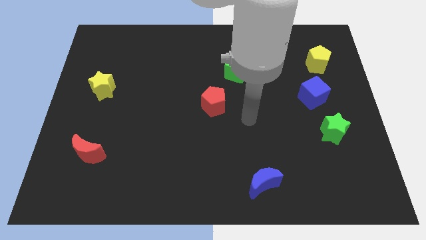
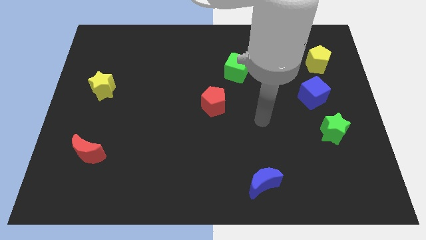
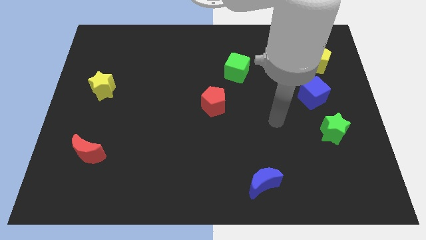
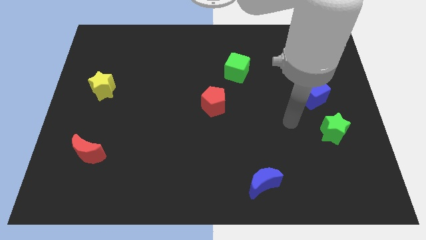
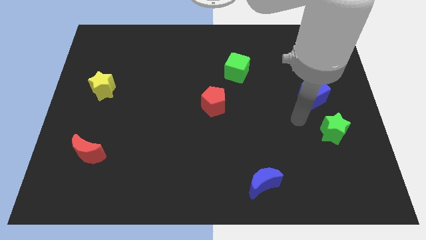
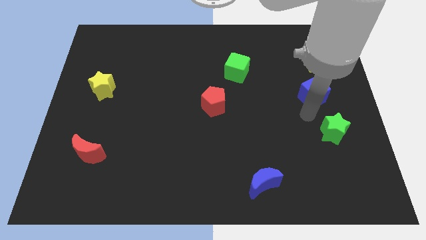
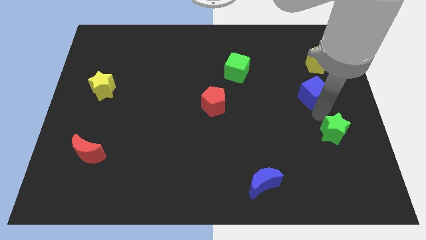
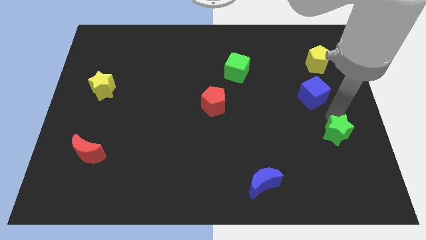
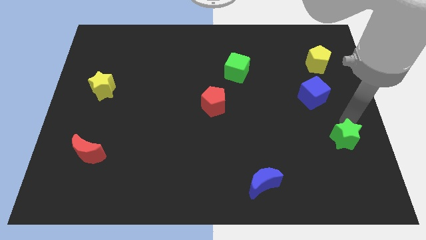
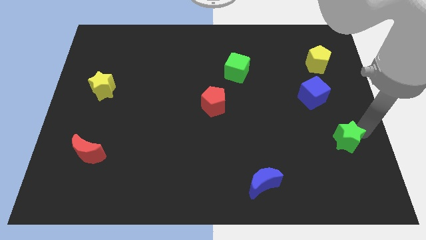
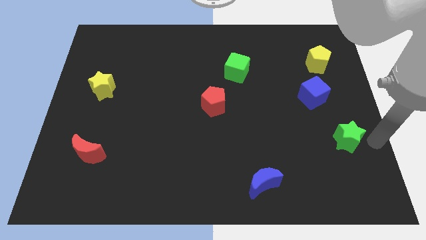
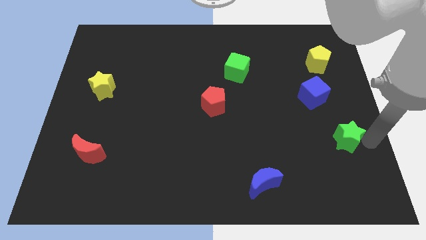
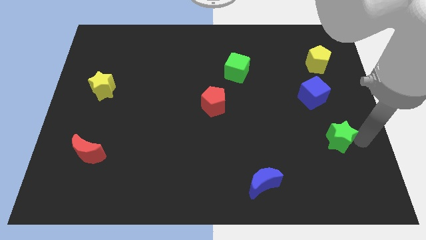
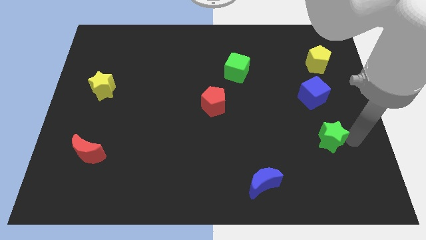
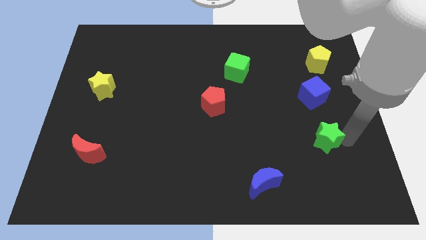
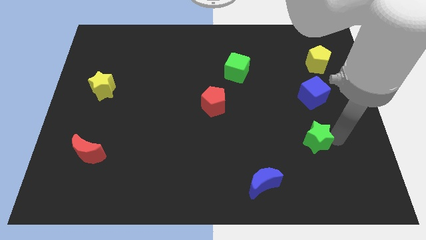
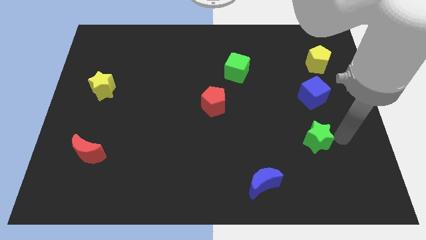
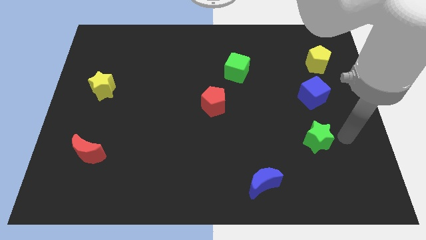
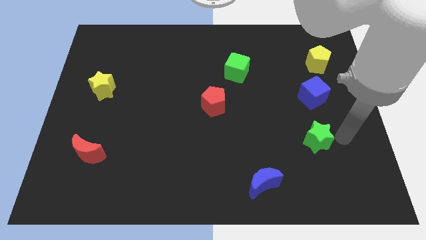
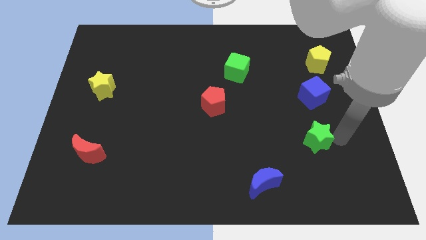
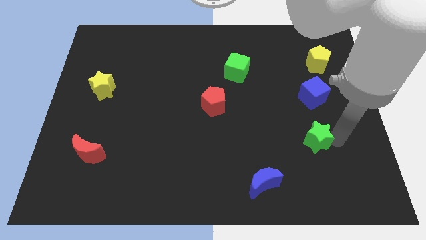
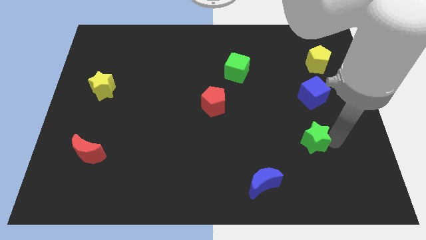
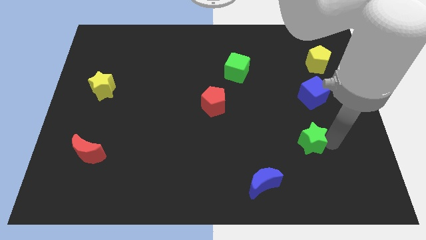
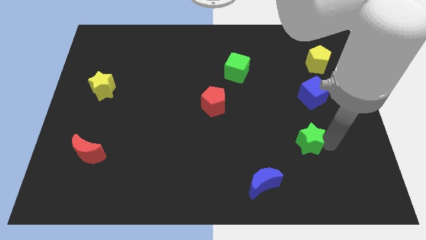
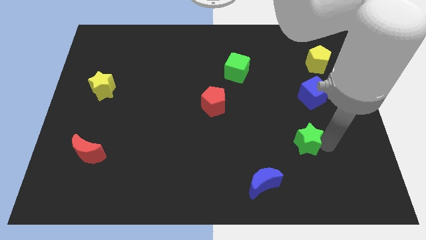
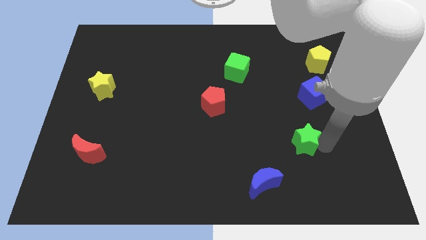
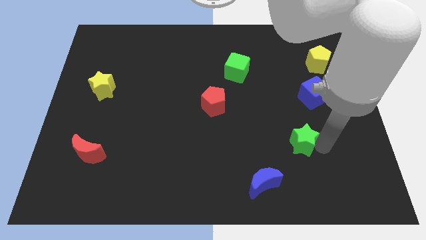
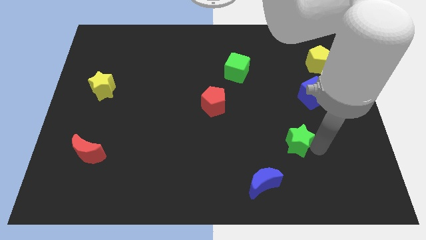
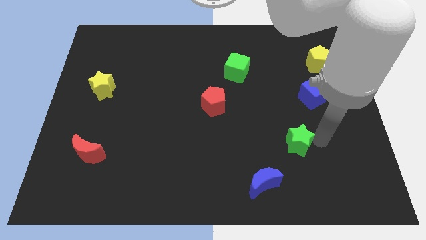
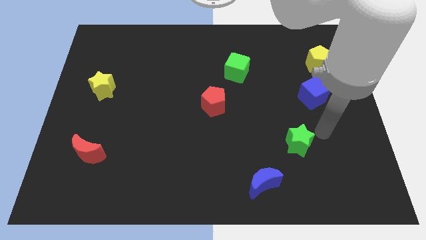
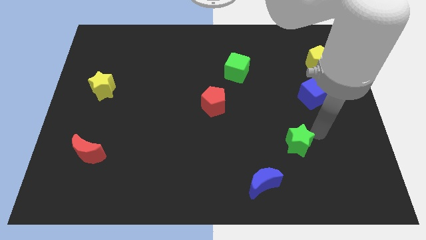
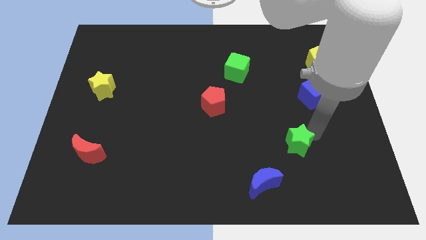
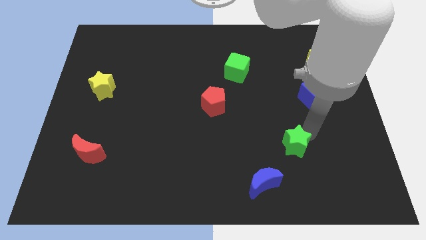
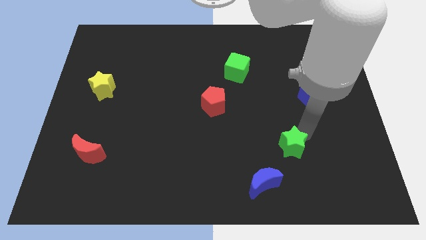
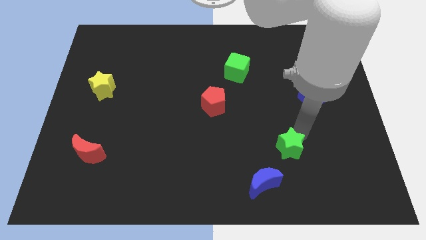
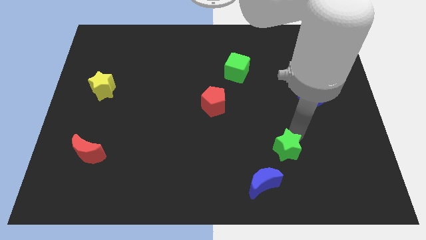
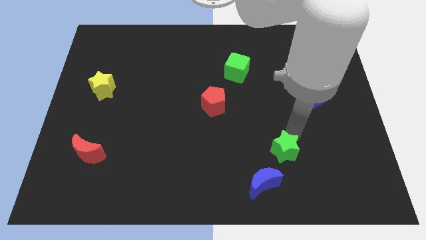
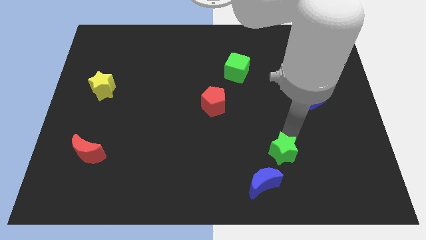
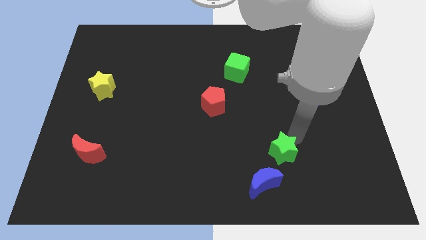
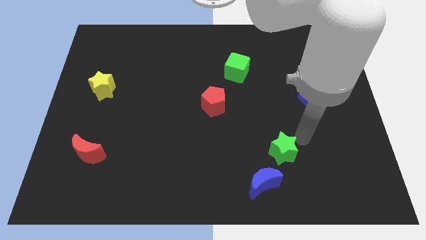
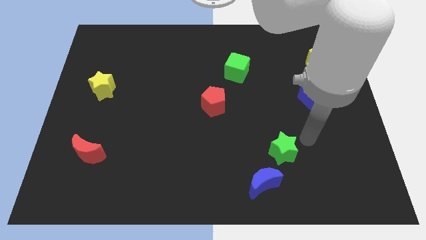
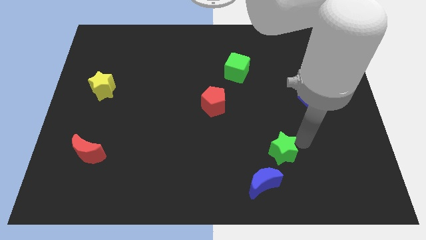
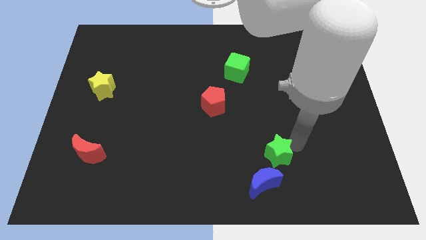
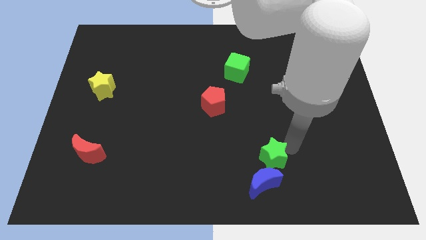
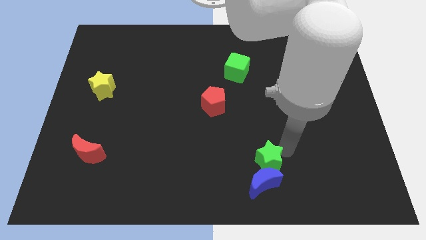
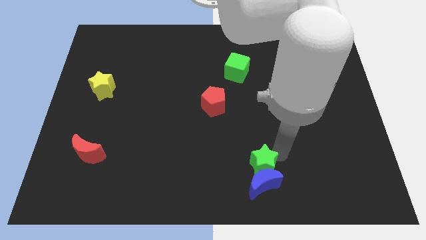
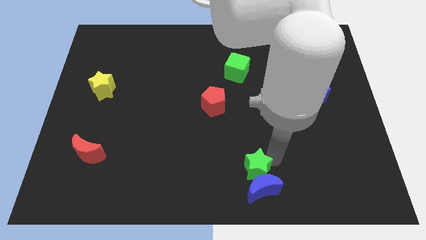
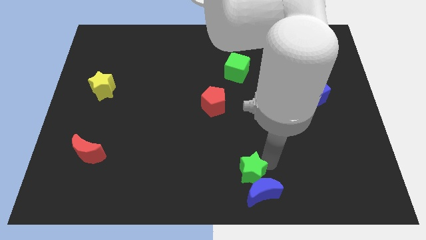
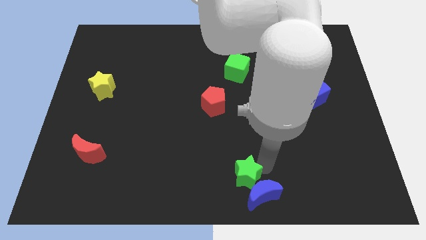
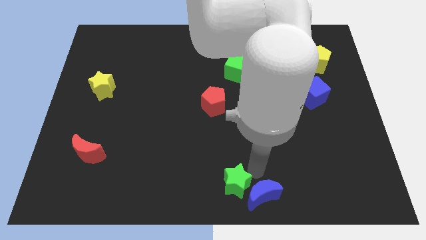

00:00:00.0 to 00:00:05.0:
slide the green star left of the blue moon

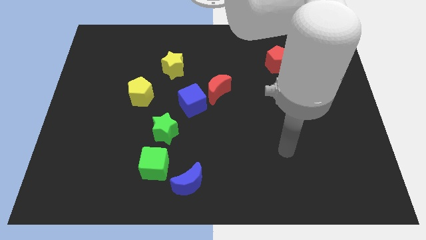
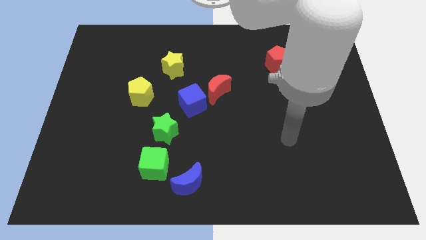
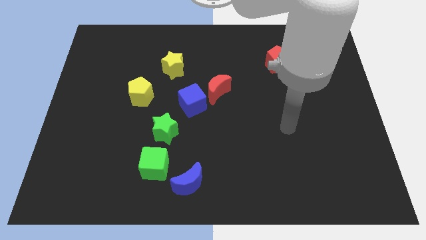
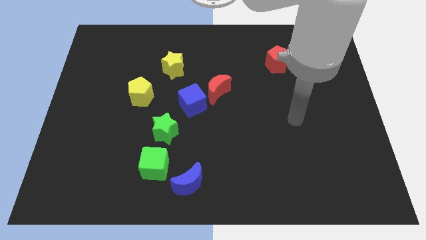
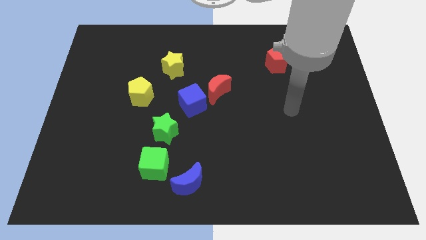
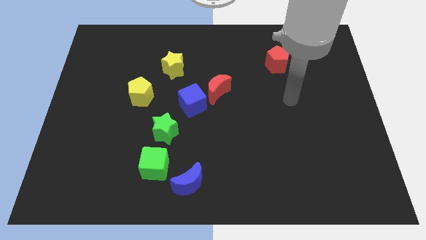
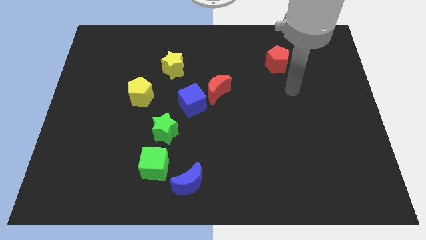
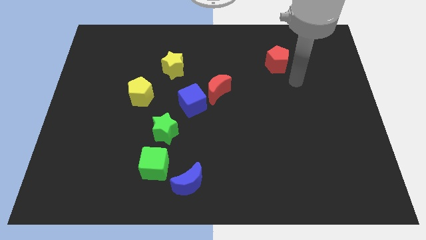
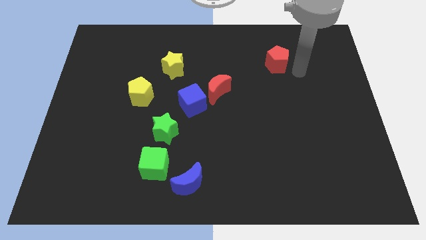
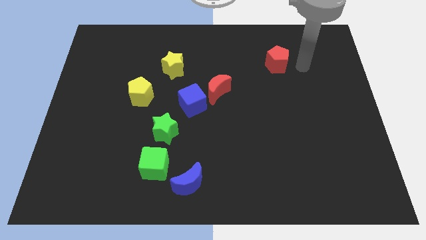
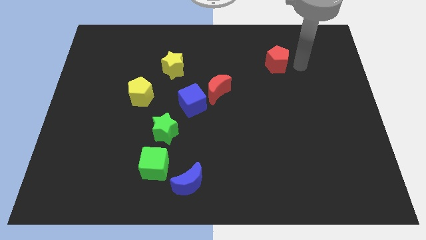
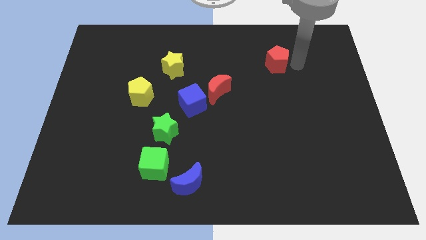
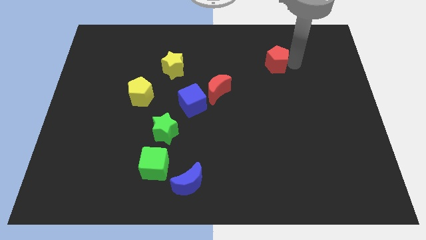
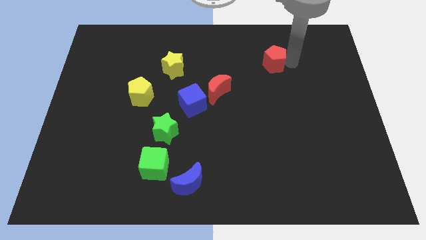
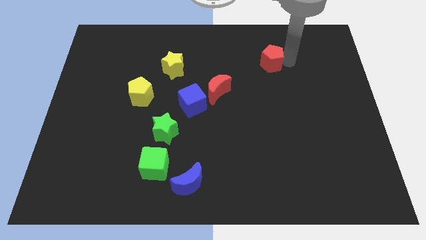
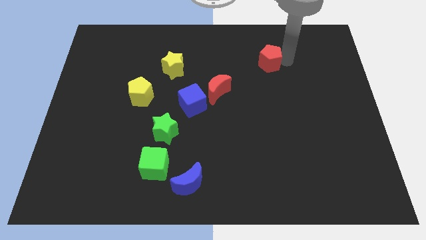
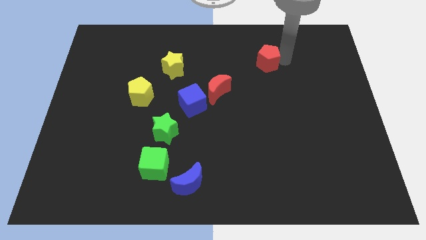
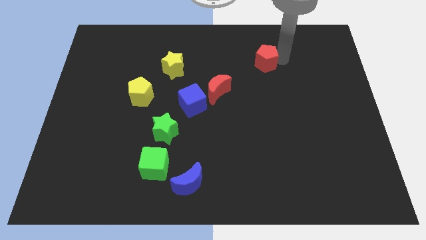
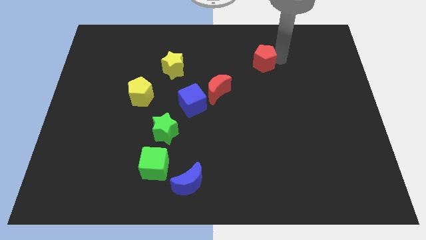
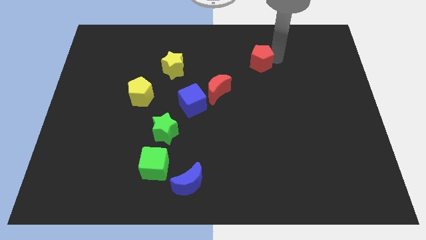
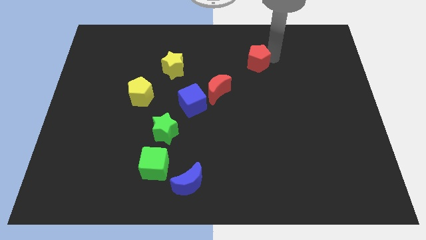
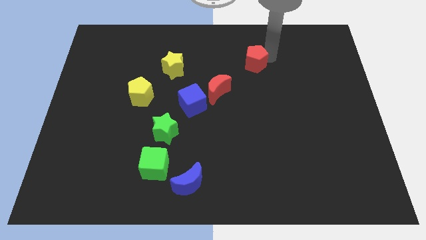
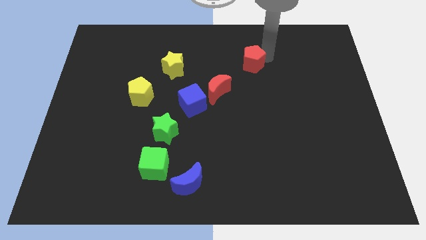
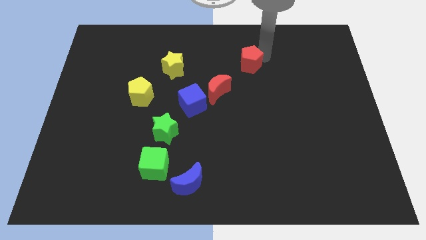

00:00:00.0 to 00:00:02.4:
move the red pentagon to the top right of the red moon
